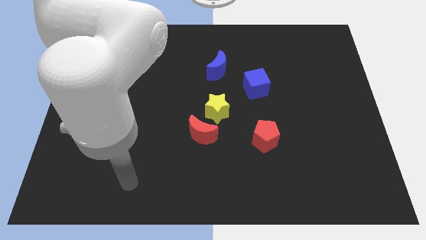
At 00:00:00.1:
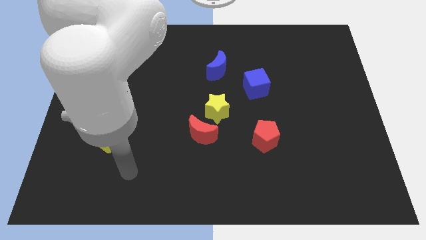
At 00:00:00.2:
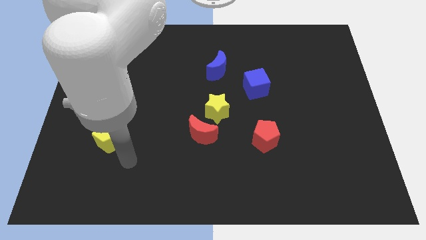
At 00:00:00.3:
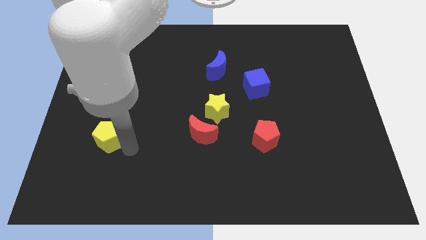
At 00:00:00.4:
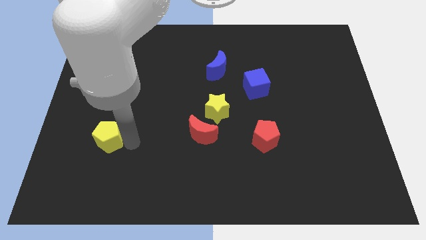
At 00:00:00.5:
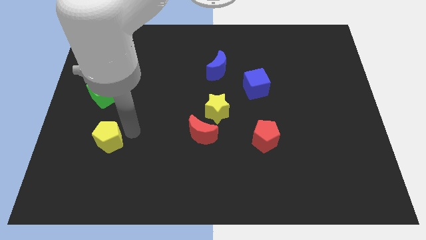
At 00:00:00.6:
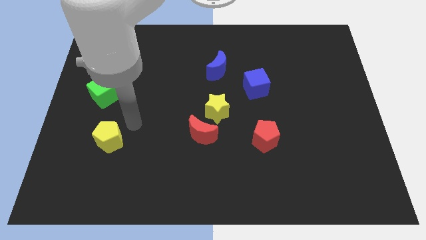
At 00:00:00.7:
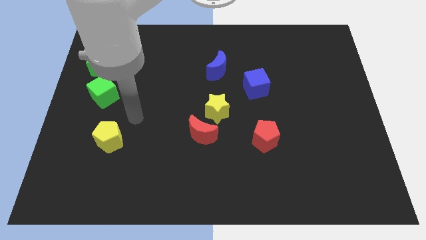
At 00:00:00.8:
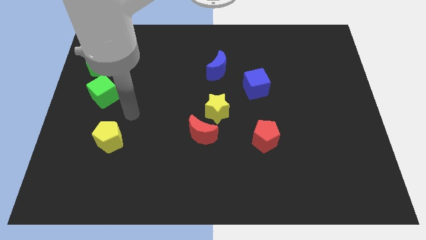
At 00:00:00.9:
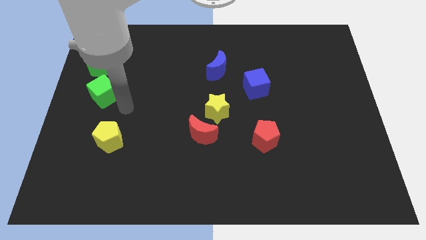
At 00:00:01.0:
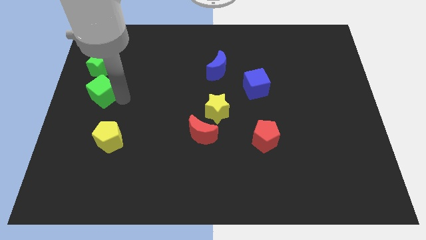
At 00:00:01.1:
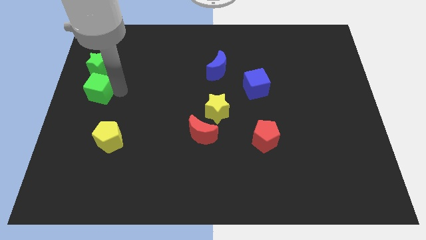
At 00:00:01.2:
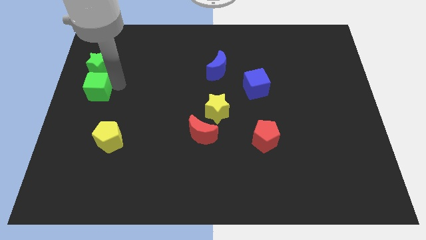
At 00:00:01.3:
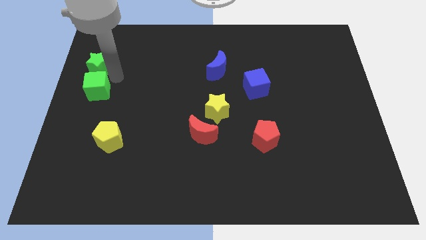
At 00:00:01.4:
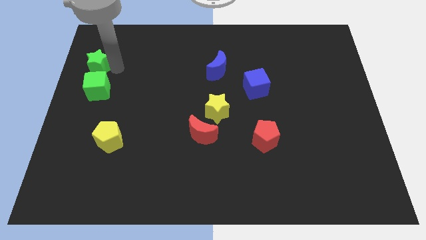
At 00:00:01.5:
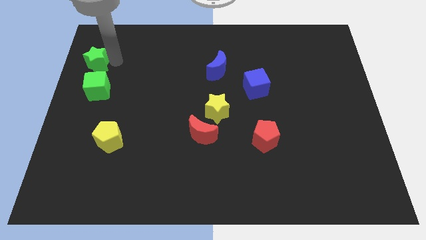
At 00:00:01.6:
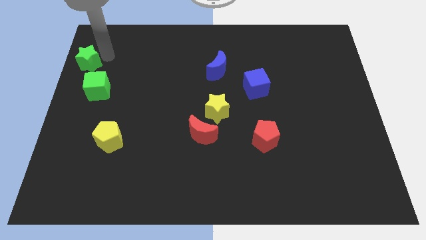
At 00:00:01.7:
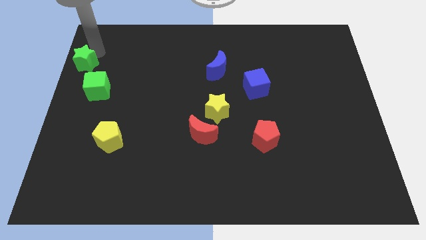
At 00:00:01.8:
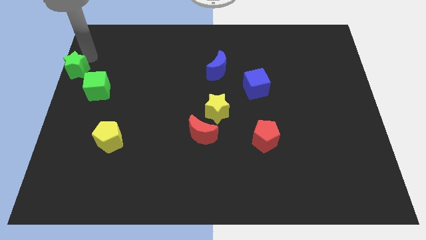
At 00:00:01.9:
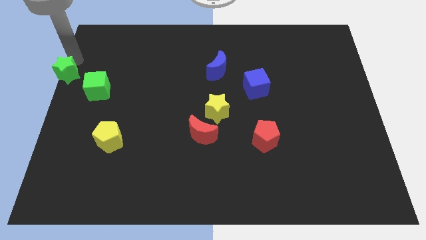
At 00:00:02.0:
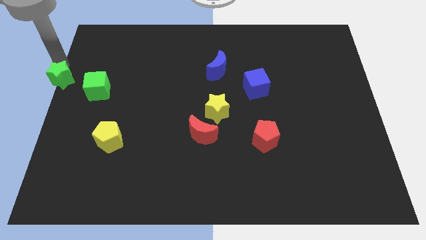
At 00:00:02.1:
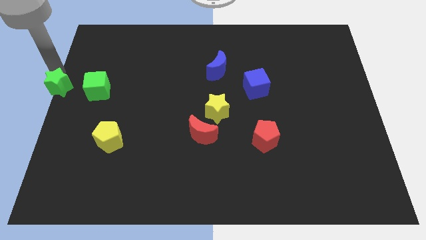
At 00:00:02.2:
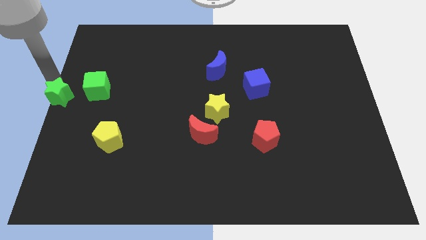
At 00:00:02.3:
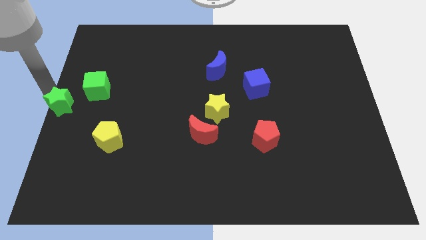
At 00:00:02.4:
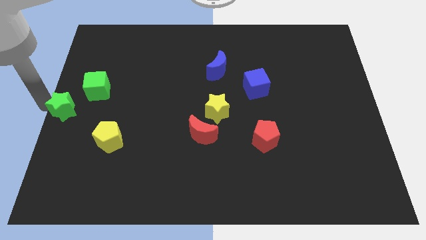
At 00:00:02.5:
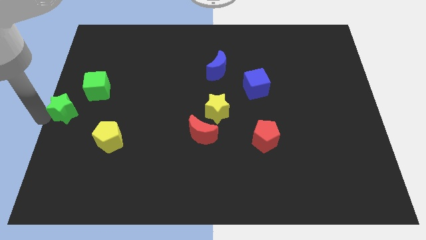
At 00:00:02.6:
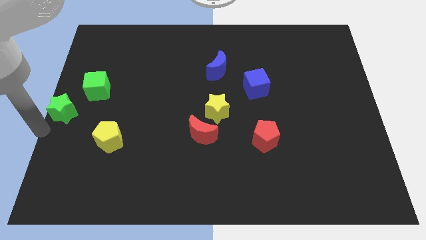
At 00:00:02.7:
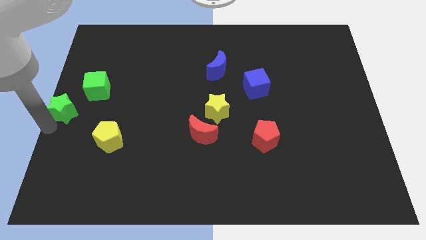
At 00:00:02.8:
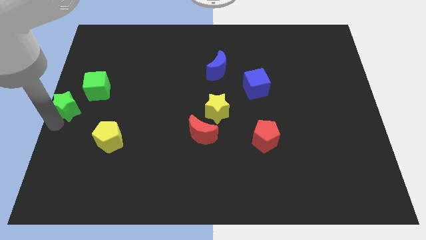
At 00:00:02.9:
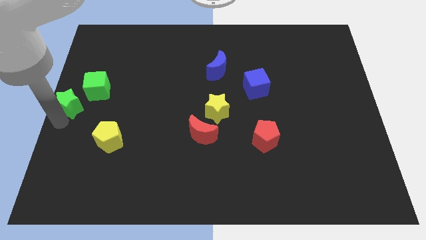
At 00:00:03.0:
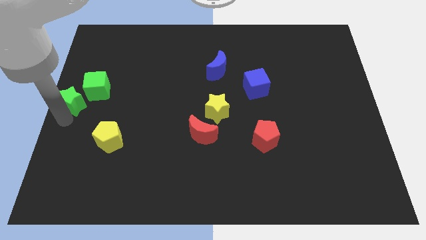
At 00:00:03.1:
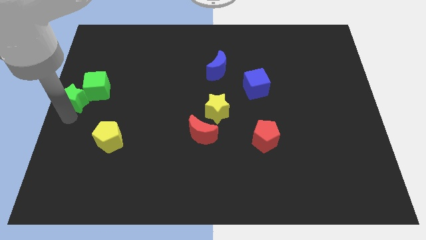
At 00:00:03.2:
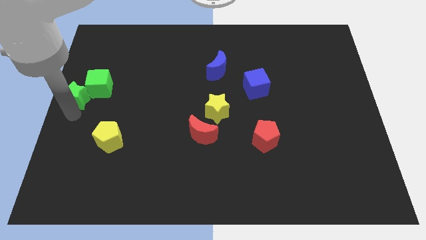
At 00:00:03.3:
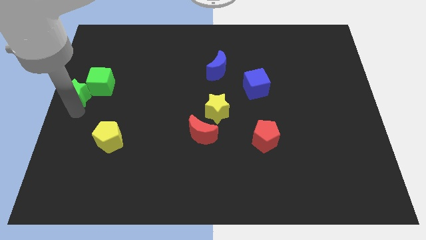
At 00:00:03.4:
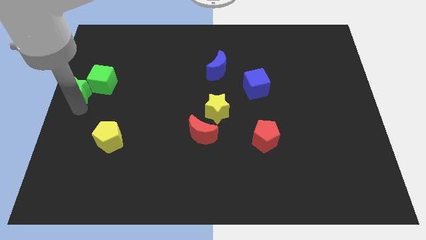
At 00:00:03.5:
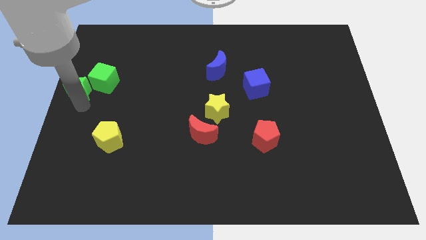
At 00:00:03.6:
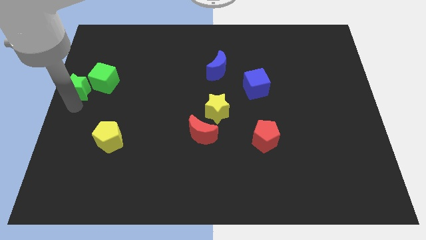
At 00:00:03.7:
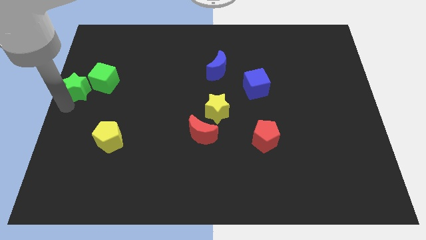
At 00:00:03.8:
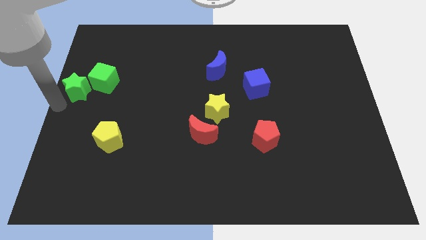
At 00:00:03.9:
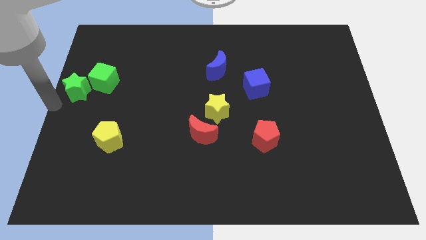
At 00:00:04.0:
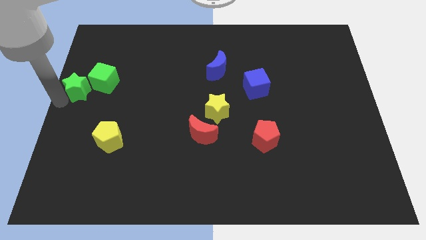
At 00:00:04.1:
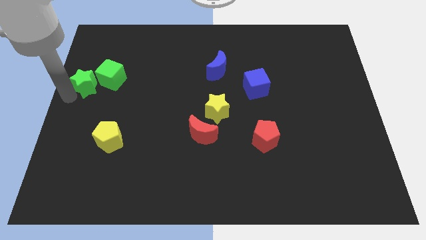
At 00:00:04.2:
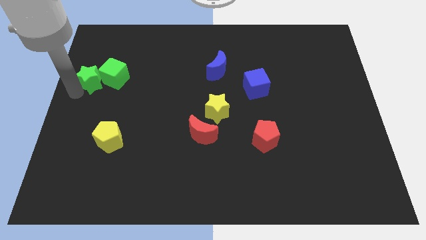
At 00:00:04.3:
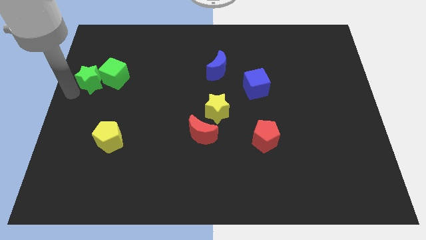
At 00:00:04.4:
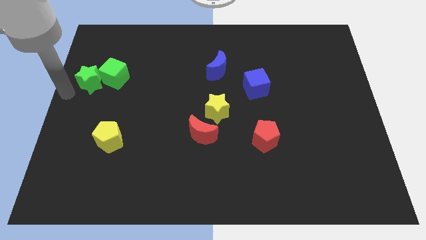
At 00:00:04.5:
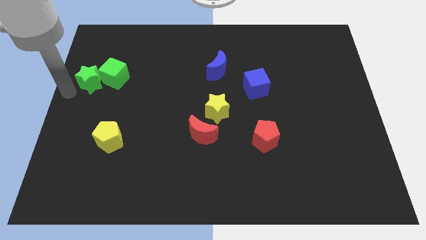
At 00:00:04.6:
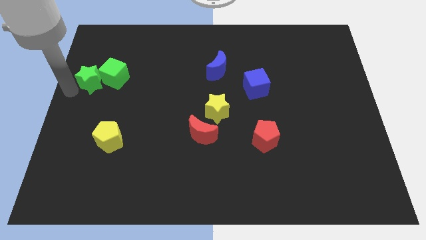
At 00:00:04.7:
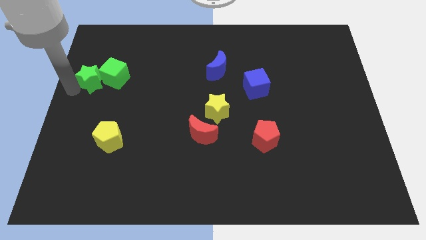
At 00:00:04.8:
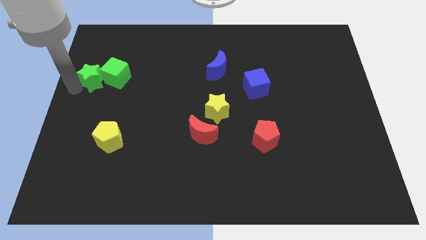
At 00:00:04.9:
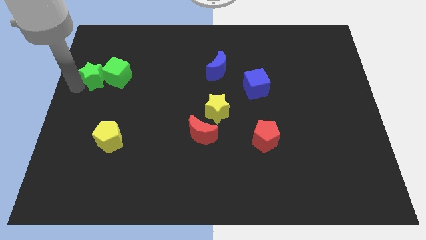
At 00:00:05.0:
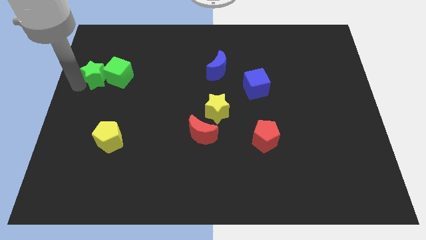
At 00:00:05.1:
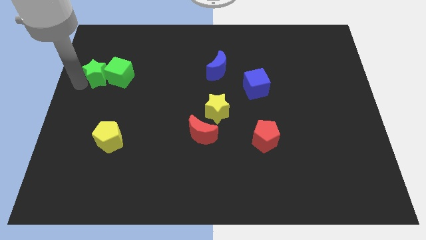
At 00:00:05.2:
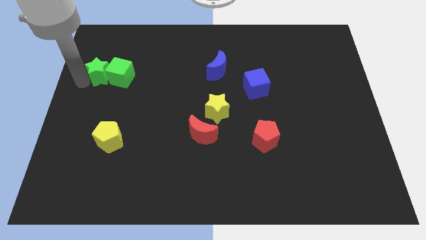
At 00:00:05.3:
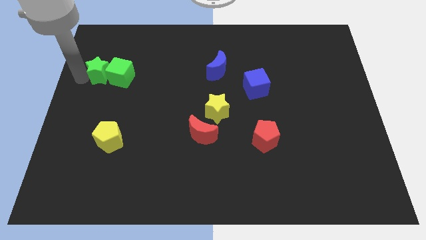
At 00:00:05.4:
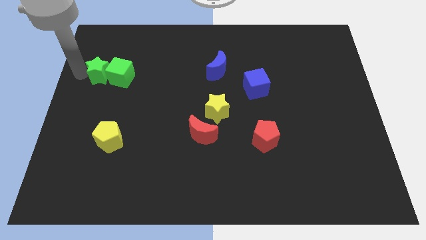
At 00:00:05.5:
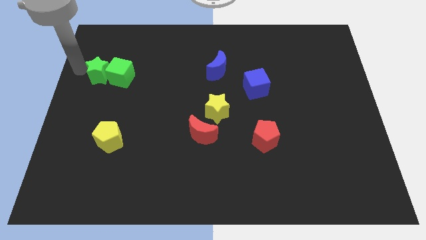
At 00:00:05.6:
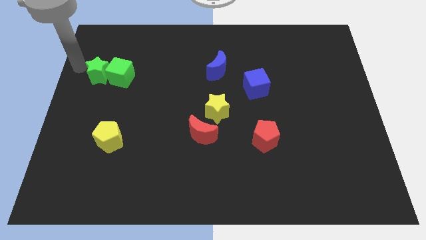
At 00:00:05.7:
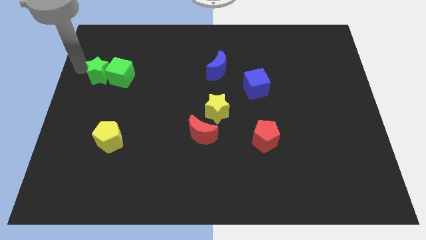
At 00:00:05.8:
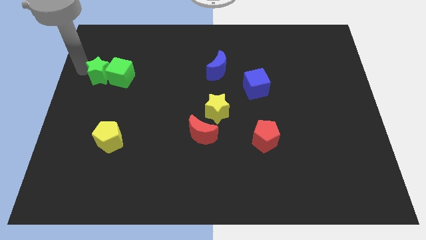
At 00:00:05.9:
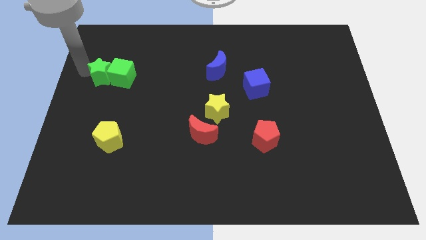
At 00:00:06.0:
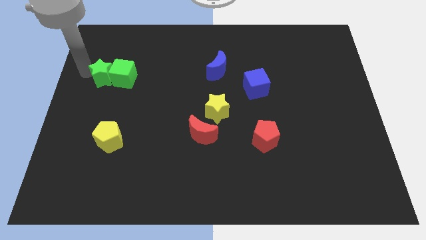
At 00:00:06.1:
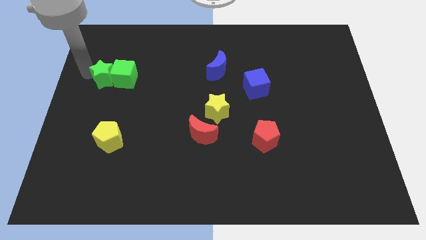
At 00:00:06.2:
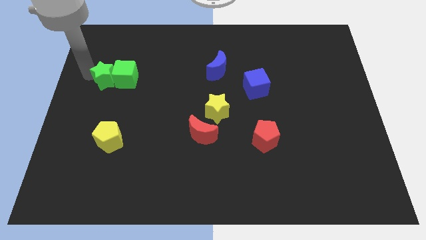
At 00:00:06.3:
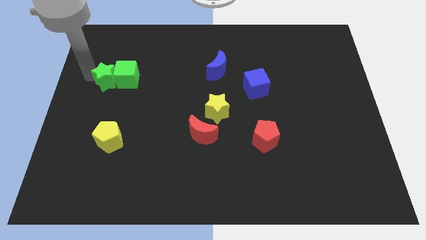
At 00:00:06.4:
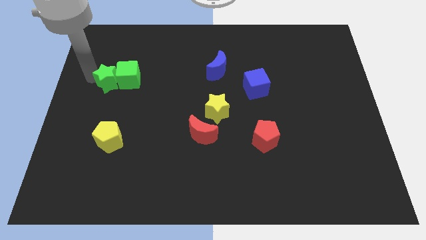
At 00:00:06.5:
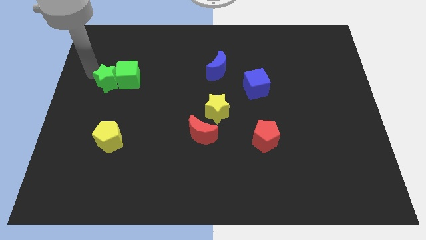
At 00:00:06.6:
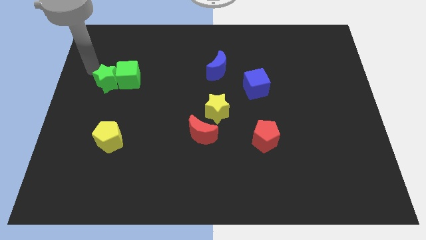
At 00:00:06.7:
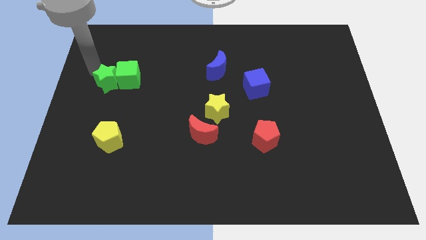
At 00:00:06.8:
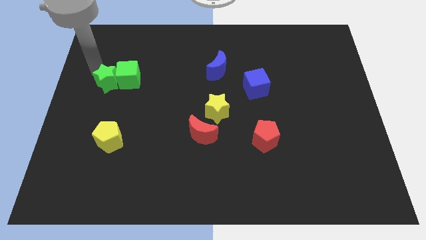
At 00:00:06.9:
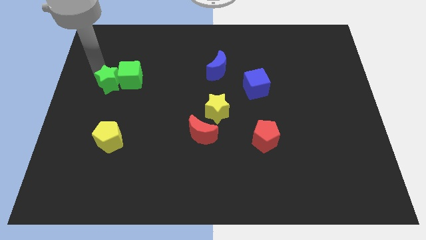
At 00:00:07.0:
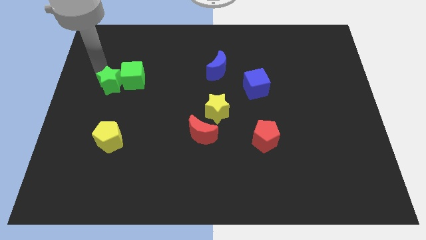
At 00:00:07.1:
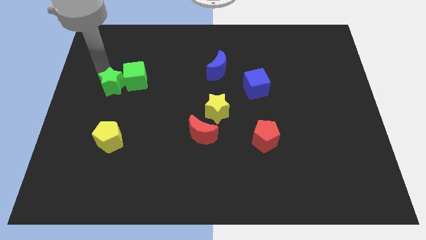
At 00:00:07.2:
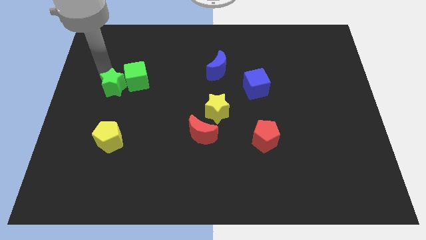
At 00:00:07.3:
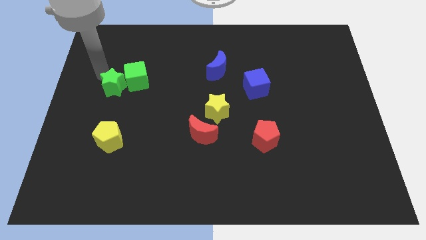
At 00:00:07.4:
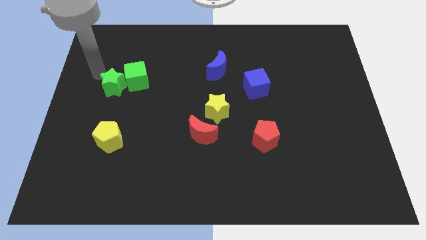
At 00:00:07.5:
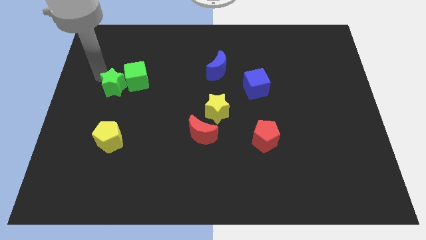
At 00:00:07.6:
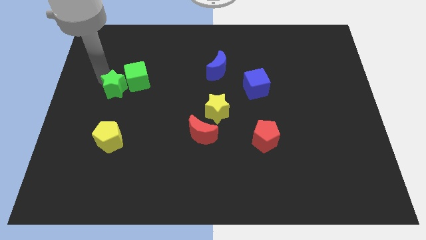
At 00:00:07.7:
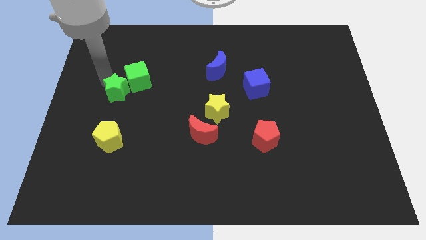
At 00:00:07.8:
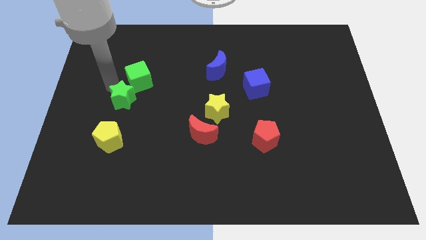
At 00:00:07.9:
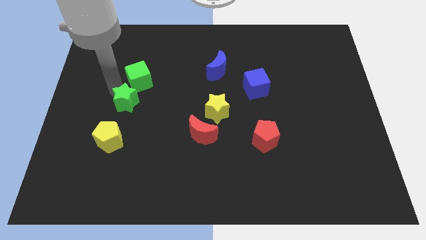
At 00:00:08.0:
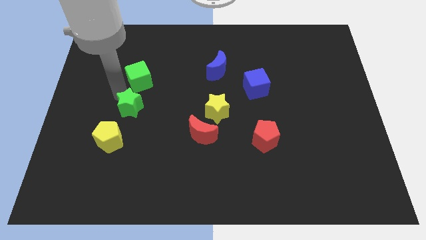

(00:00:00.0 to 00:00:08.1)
push the green star to the top right of the yellow pentagon
